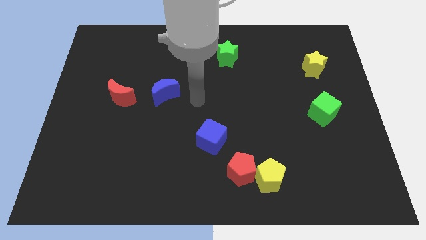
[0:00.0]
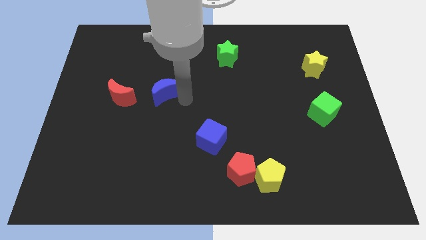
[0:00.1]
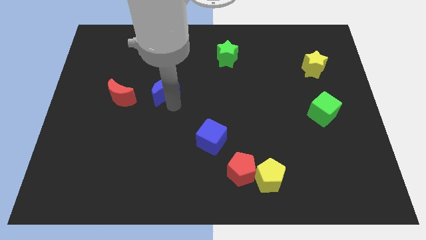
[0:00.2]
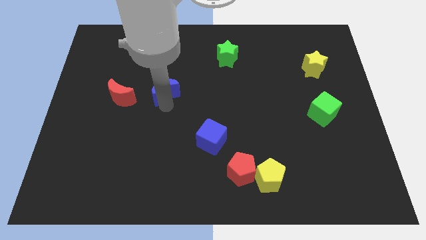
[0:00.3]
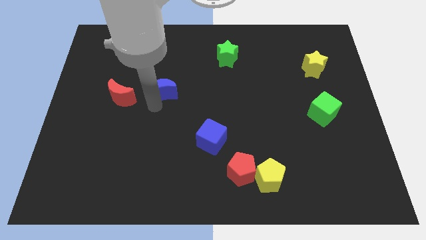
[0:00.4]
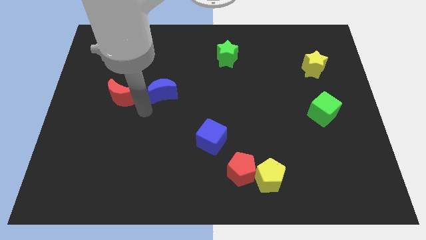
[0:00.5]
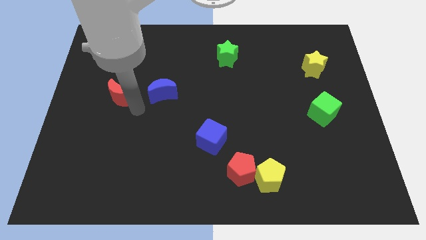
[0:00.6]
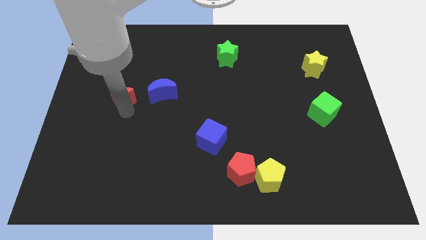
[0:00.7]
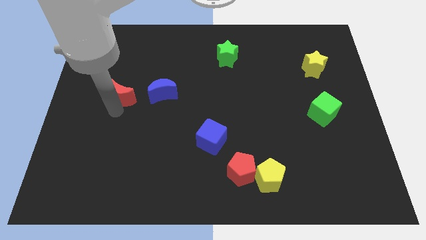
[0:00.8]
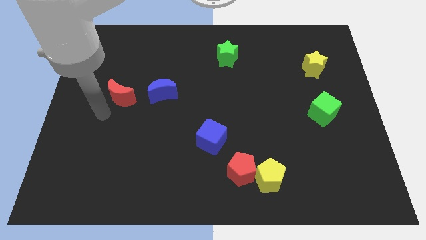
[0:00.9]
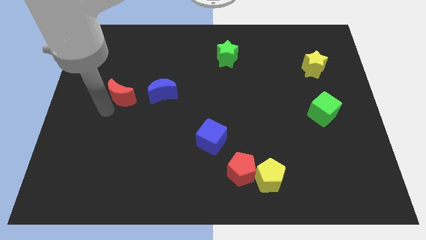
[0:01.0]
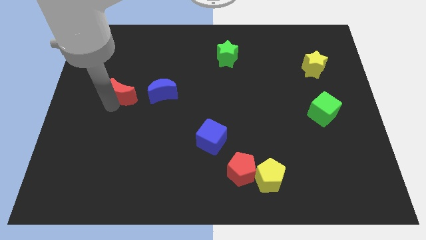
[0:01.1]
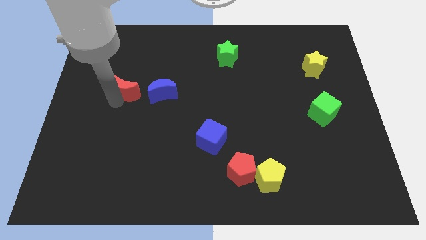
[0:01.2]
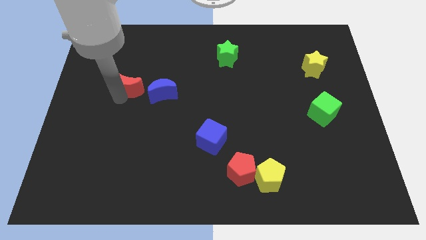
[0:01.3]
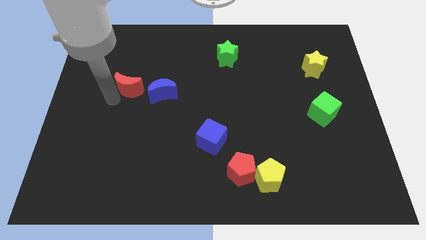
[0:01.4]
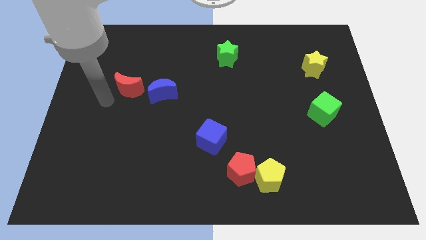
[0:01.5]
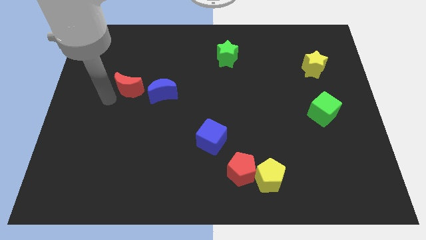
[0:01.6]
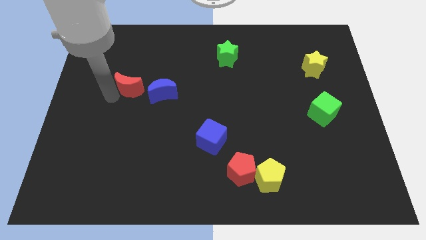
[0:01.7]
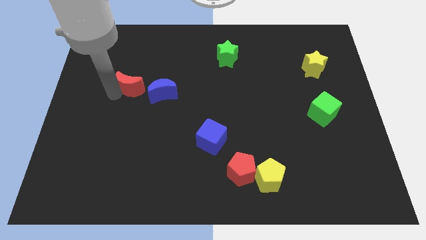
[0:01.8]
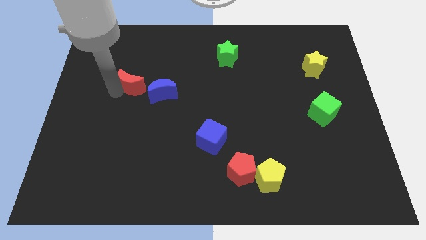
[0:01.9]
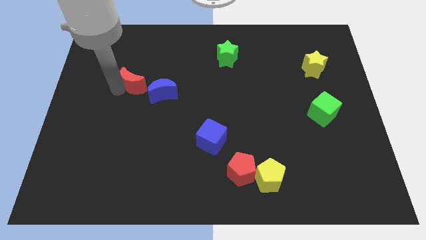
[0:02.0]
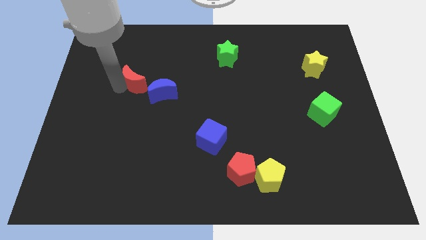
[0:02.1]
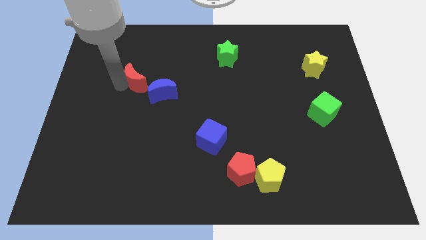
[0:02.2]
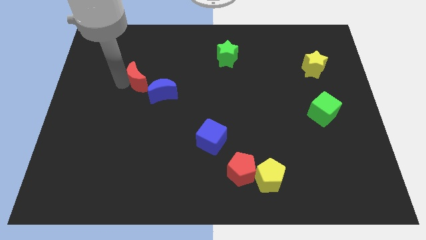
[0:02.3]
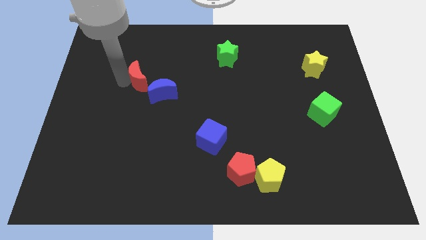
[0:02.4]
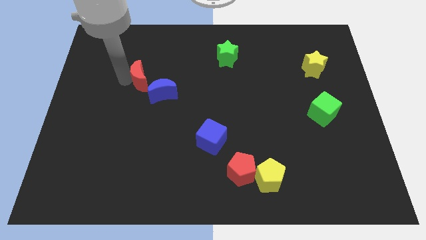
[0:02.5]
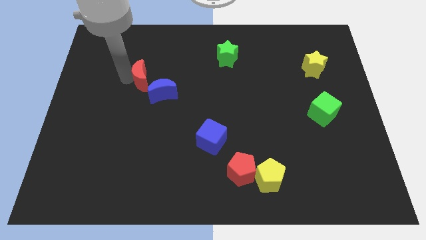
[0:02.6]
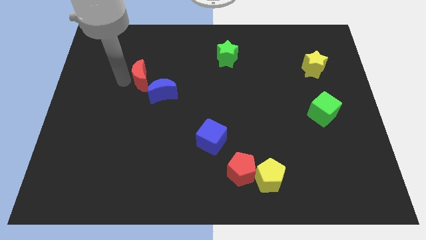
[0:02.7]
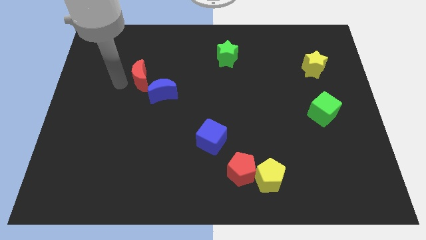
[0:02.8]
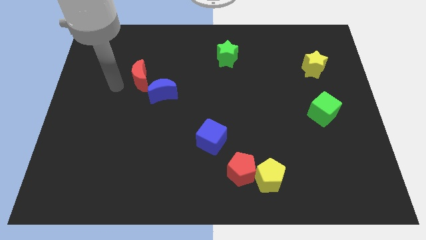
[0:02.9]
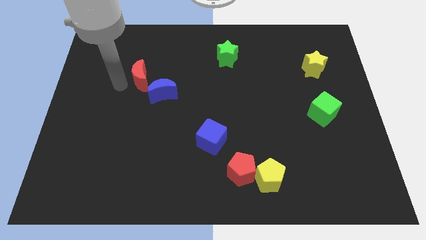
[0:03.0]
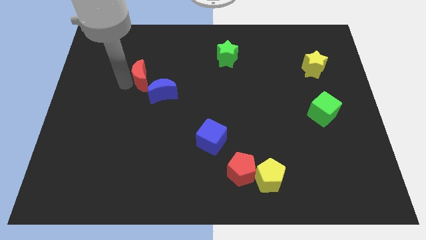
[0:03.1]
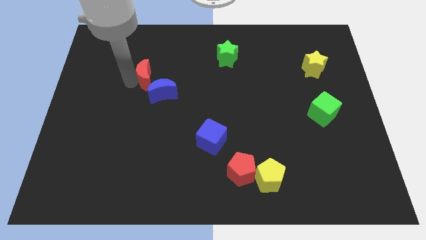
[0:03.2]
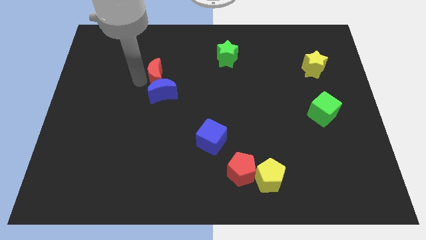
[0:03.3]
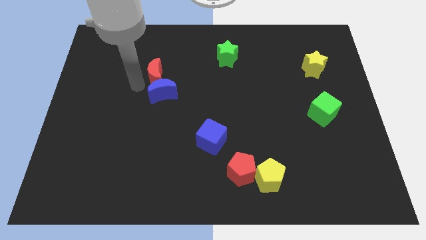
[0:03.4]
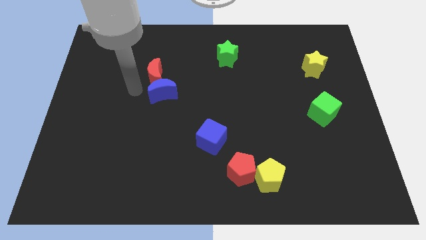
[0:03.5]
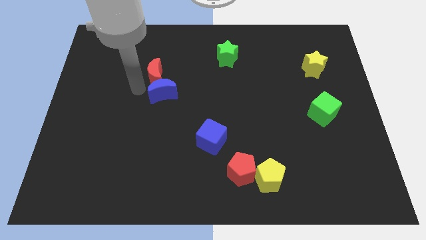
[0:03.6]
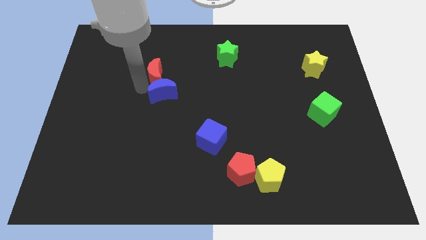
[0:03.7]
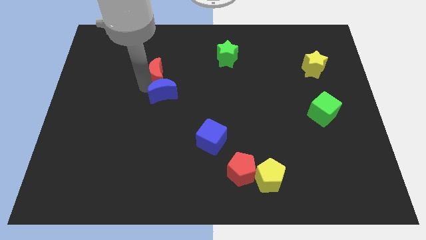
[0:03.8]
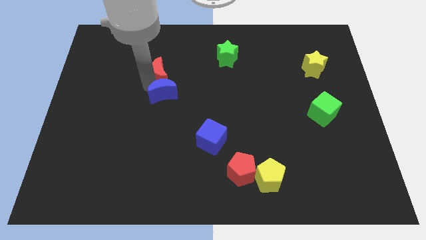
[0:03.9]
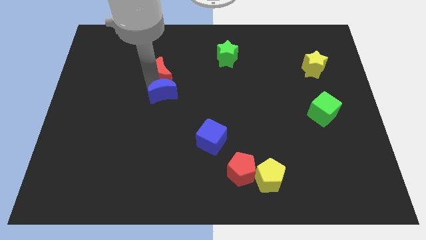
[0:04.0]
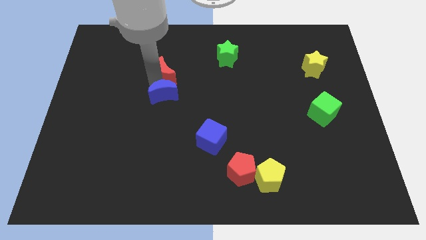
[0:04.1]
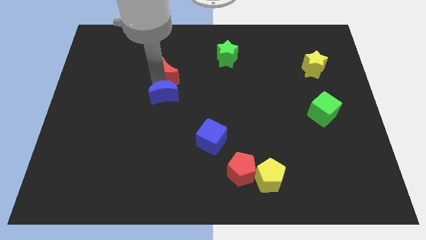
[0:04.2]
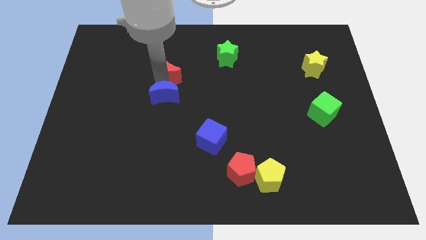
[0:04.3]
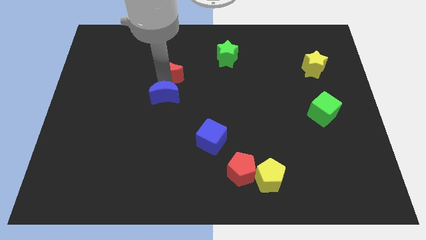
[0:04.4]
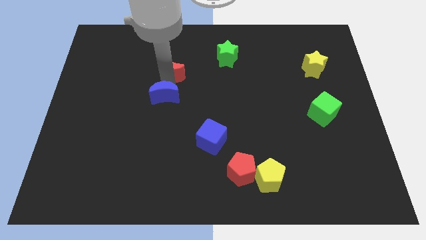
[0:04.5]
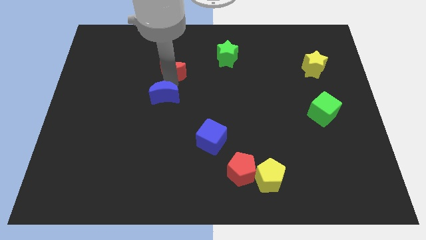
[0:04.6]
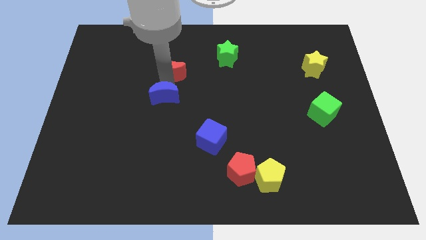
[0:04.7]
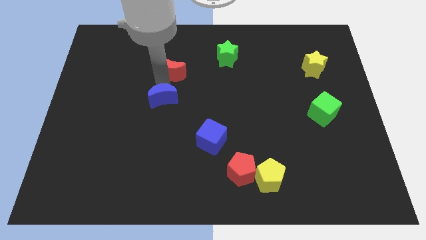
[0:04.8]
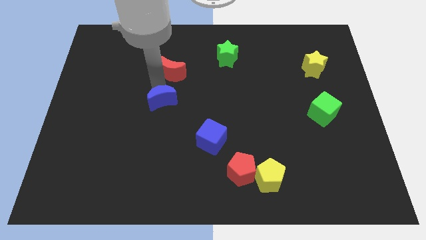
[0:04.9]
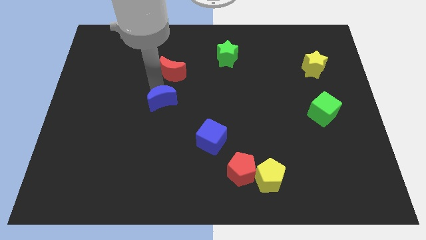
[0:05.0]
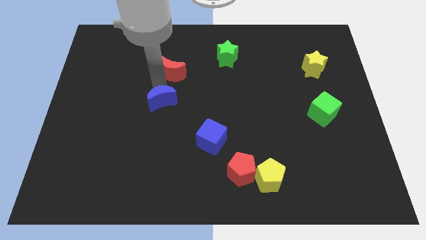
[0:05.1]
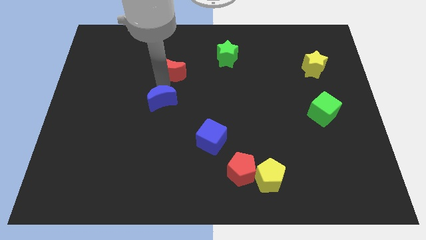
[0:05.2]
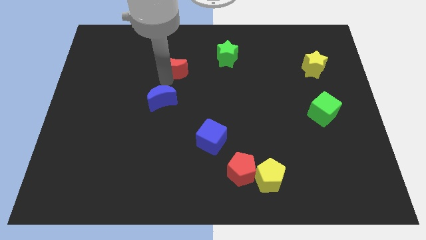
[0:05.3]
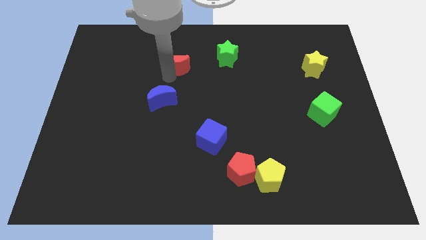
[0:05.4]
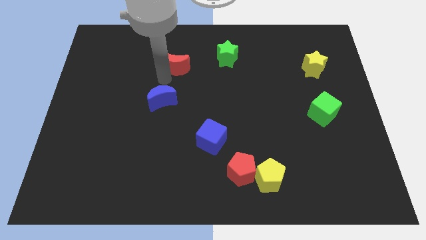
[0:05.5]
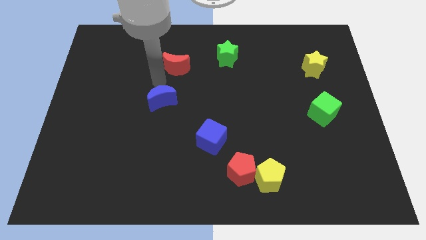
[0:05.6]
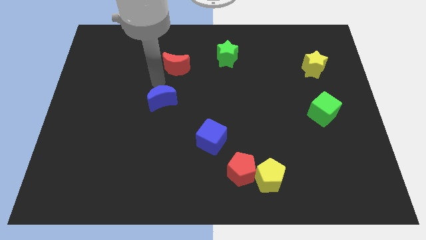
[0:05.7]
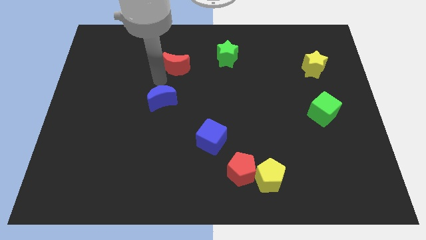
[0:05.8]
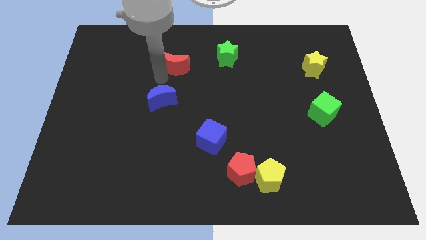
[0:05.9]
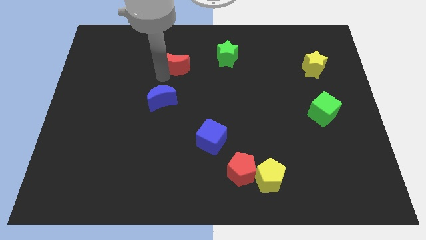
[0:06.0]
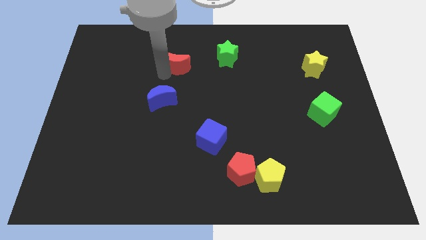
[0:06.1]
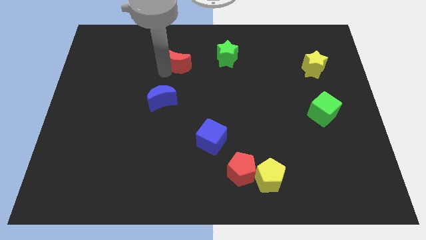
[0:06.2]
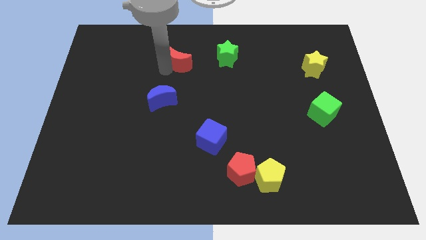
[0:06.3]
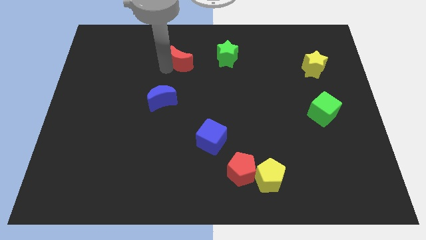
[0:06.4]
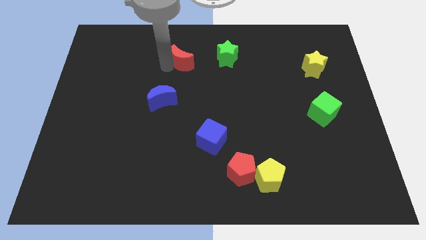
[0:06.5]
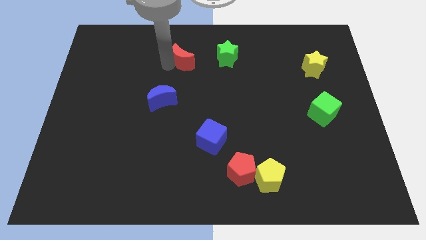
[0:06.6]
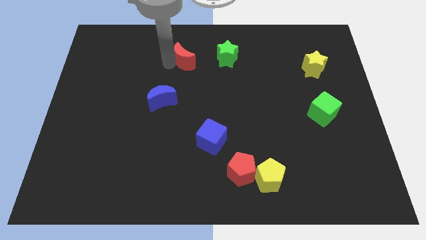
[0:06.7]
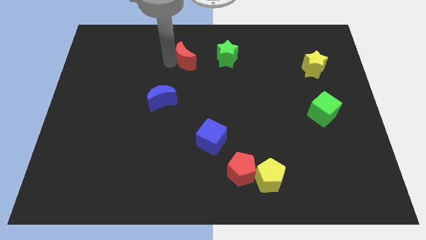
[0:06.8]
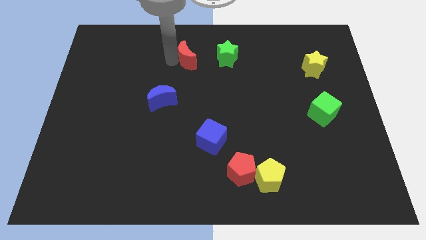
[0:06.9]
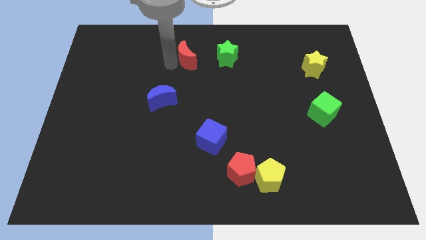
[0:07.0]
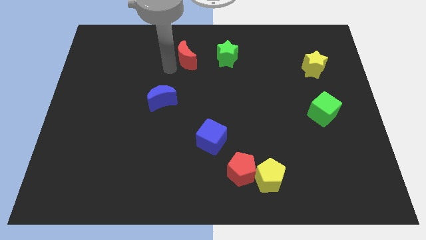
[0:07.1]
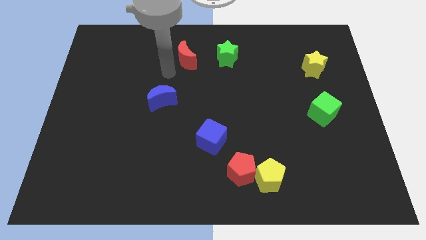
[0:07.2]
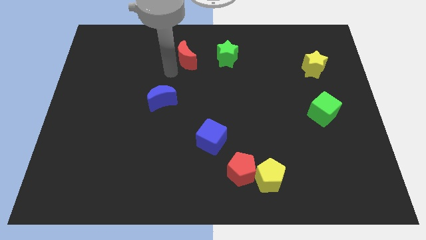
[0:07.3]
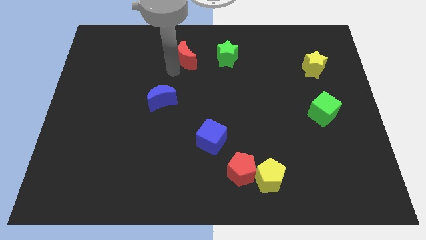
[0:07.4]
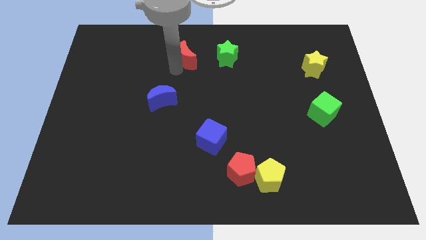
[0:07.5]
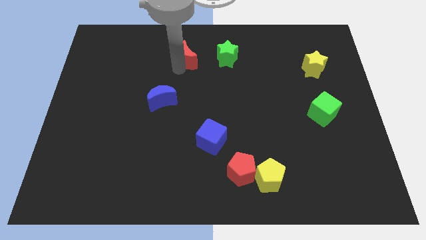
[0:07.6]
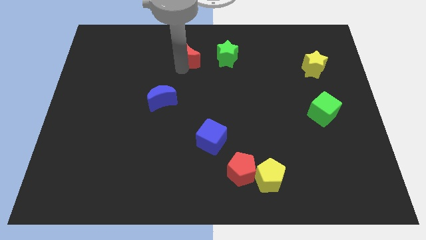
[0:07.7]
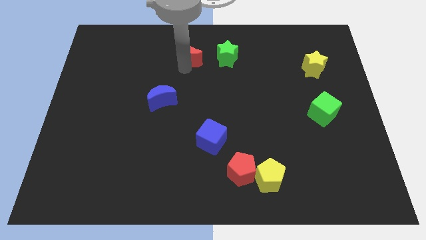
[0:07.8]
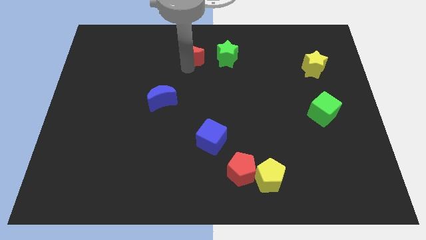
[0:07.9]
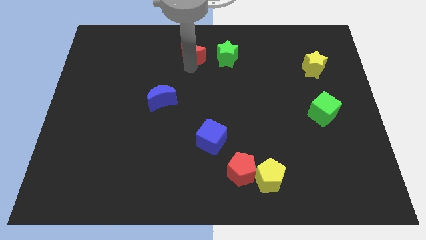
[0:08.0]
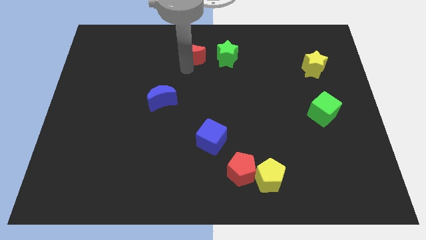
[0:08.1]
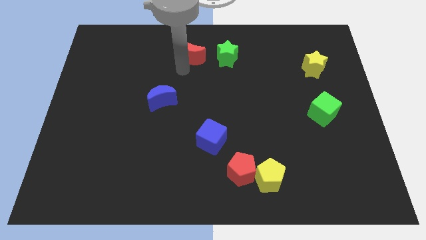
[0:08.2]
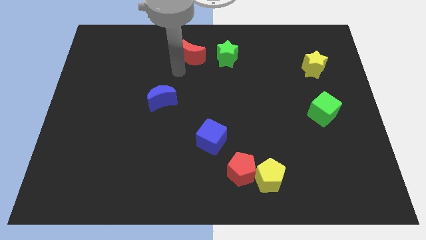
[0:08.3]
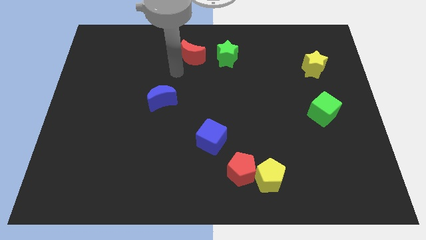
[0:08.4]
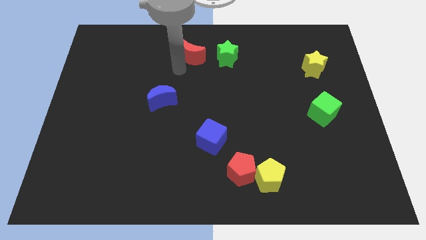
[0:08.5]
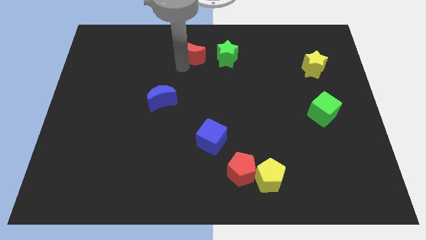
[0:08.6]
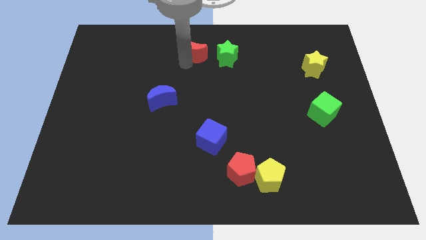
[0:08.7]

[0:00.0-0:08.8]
slide the red moon to the top
